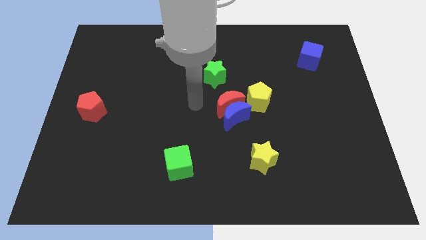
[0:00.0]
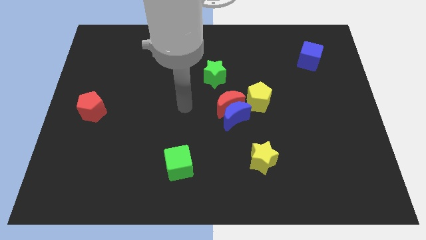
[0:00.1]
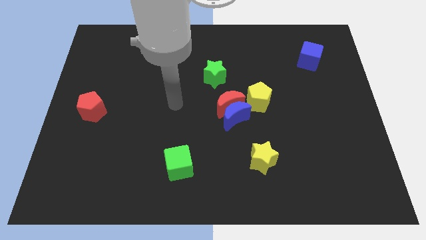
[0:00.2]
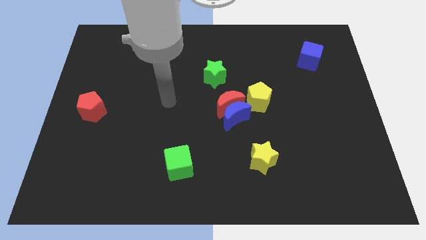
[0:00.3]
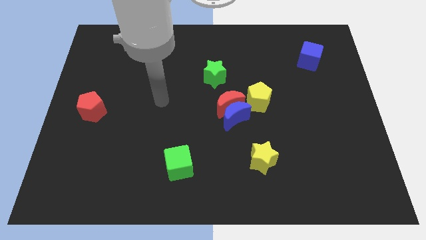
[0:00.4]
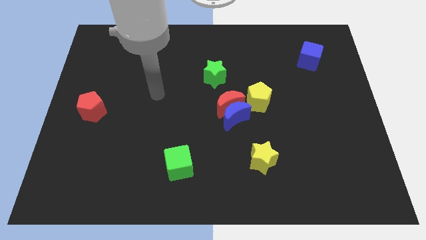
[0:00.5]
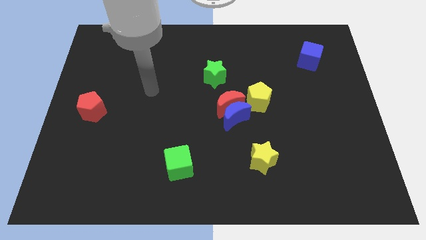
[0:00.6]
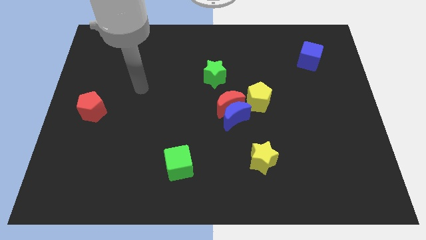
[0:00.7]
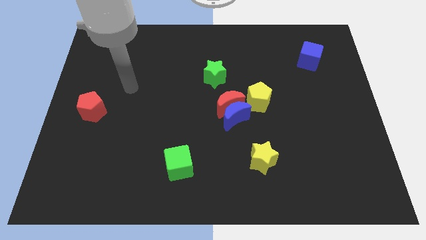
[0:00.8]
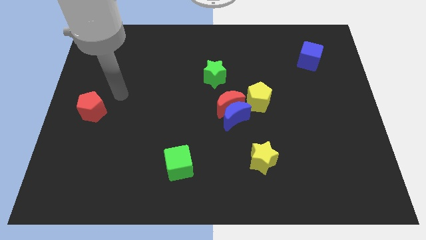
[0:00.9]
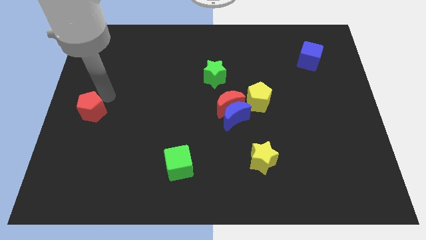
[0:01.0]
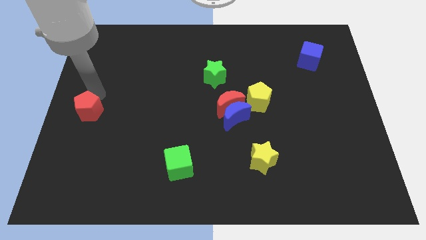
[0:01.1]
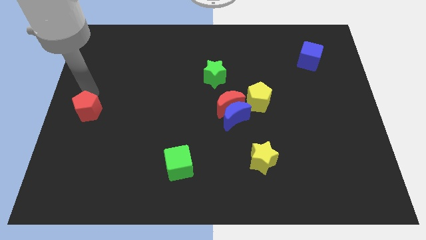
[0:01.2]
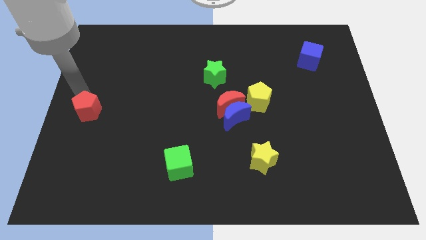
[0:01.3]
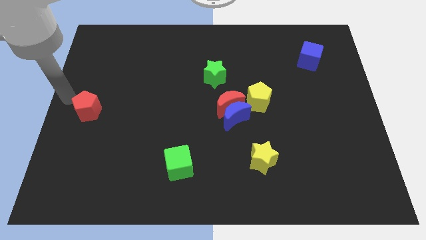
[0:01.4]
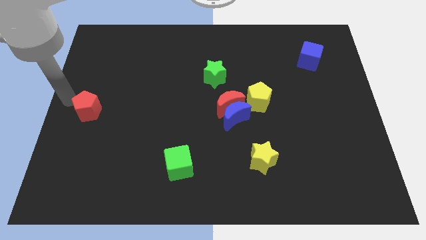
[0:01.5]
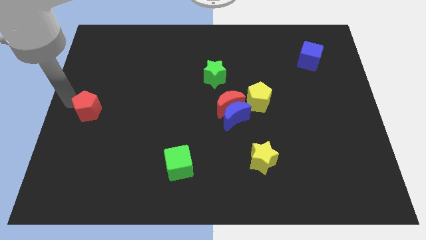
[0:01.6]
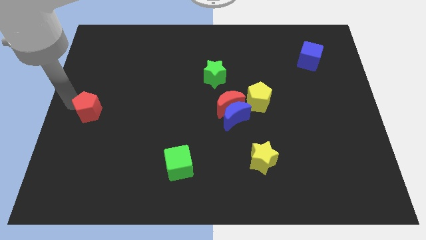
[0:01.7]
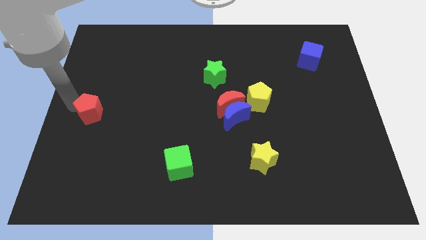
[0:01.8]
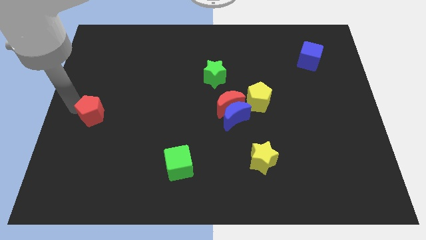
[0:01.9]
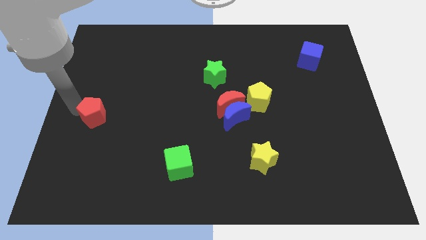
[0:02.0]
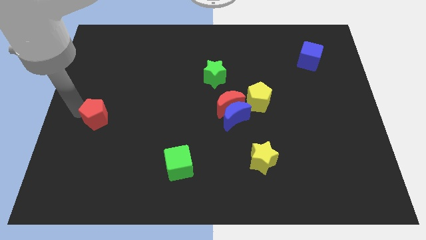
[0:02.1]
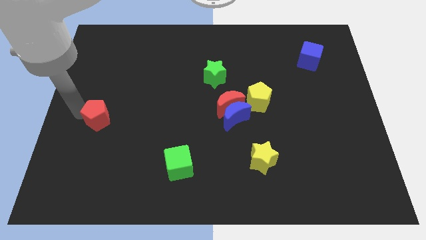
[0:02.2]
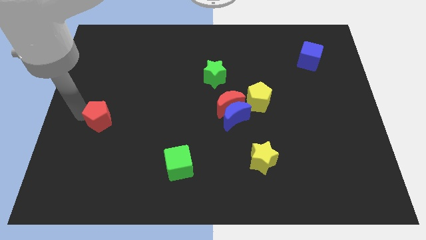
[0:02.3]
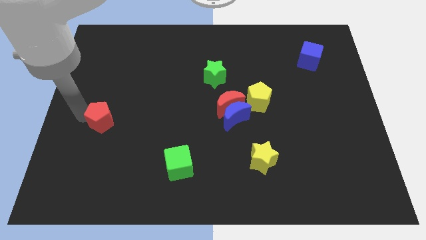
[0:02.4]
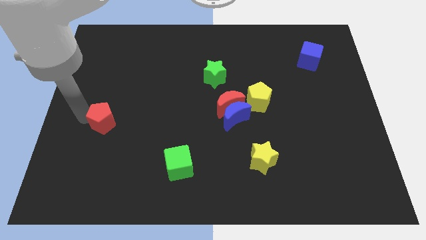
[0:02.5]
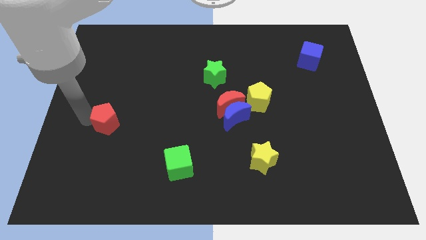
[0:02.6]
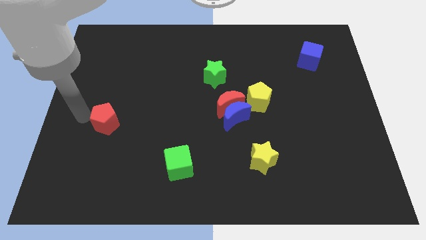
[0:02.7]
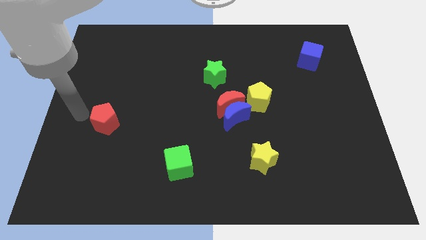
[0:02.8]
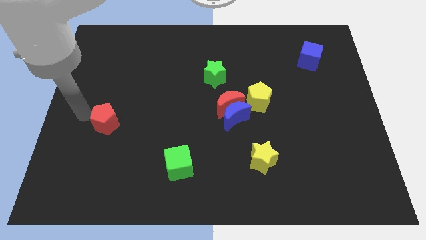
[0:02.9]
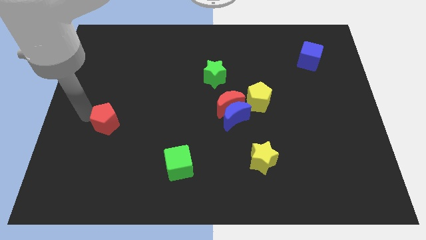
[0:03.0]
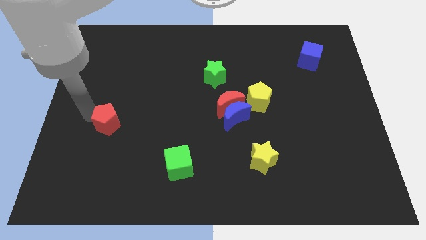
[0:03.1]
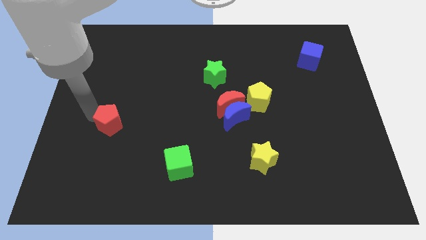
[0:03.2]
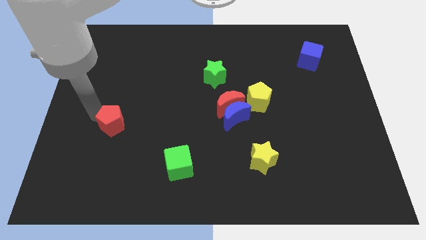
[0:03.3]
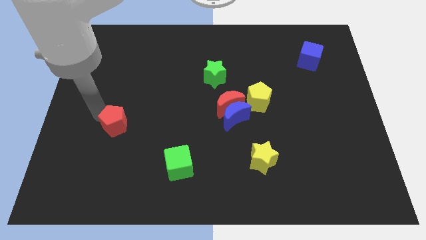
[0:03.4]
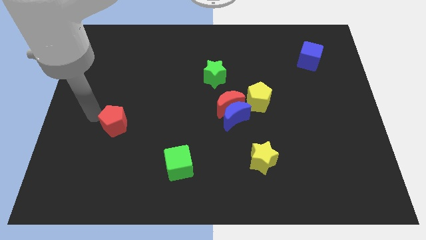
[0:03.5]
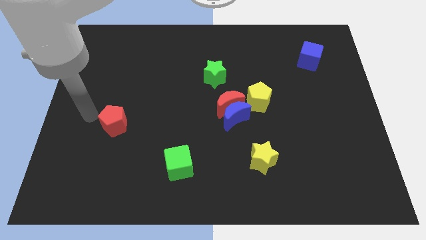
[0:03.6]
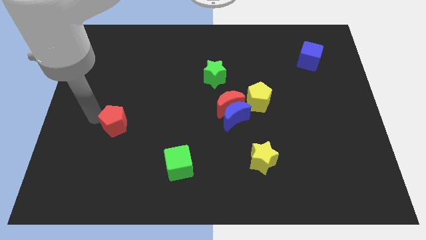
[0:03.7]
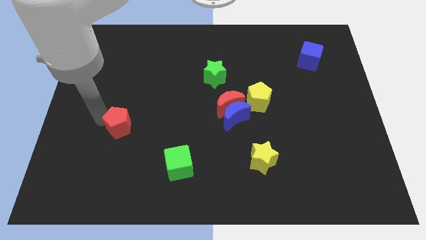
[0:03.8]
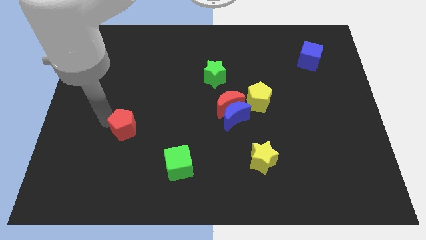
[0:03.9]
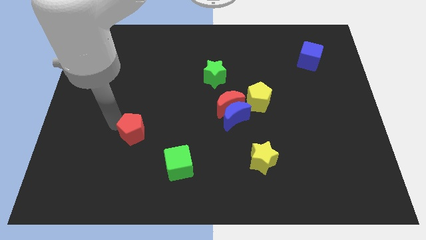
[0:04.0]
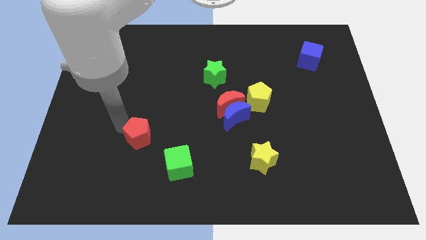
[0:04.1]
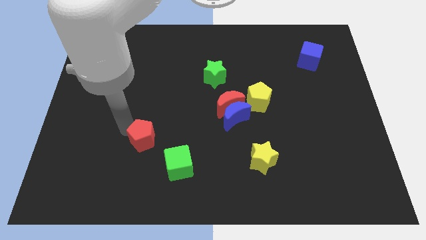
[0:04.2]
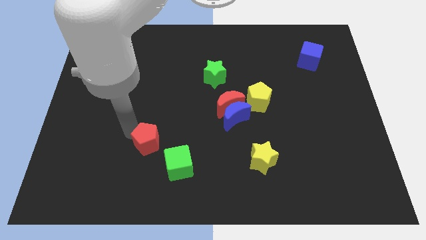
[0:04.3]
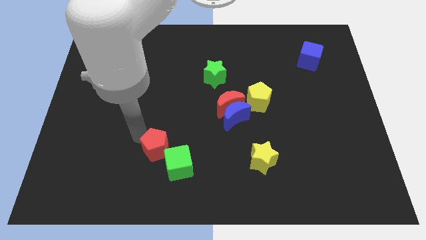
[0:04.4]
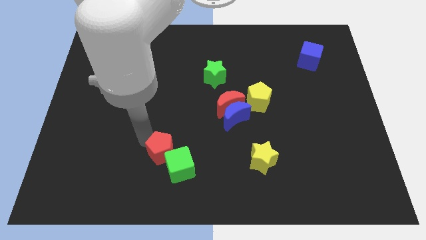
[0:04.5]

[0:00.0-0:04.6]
move the red pentagon to the green cube

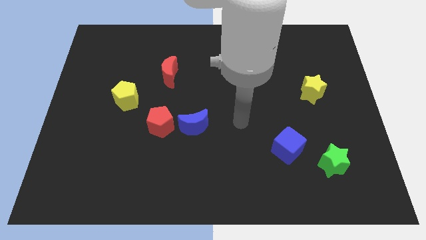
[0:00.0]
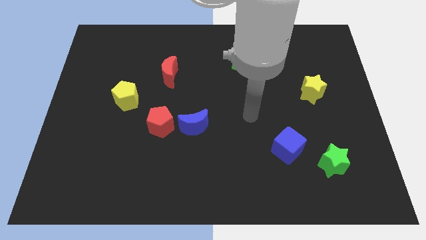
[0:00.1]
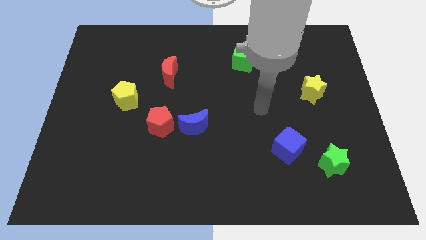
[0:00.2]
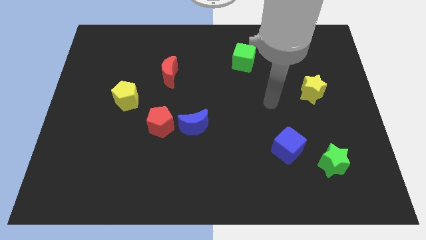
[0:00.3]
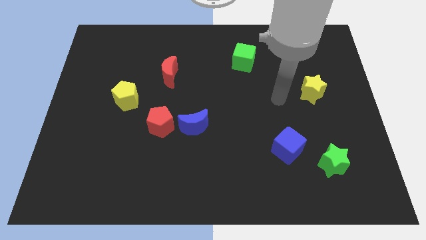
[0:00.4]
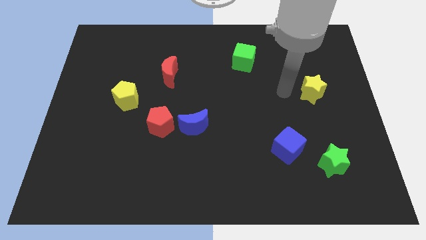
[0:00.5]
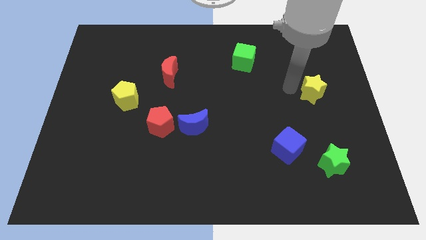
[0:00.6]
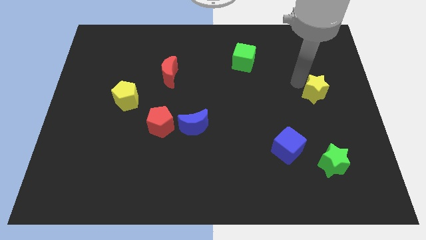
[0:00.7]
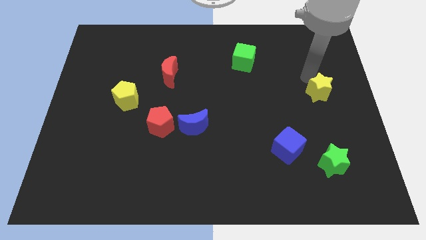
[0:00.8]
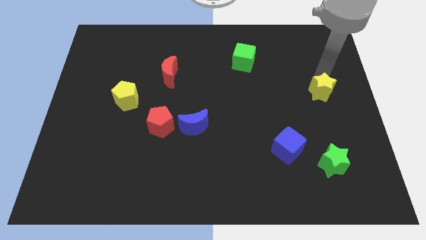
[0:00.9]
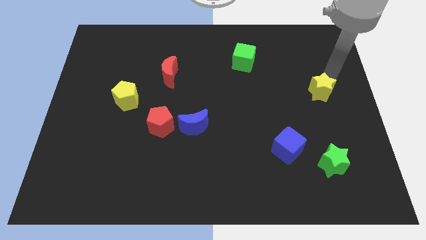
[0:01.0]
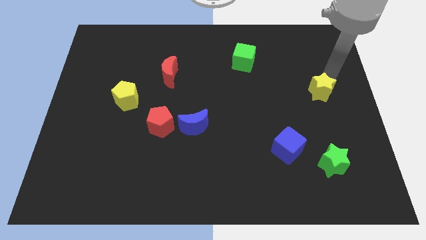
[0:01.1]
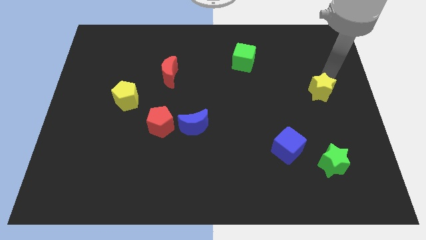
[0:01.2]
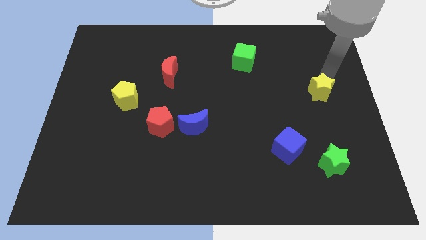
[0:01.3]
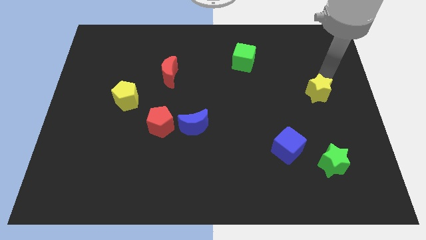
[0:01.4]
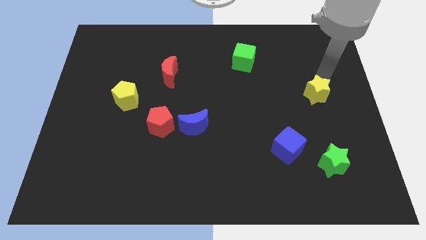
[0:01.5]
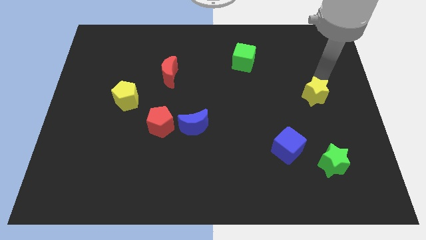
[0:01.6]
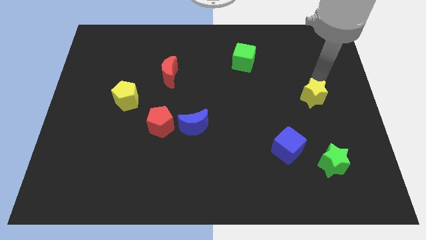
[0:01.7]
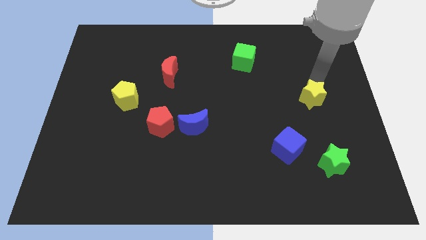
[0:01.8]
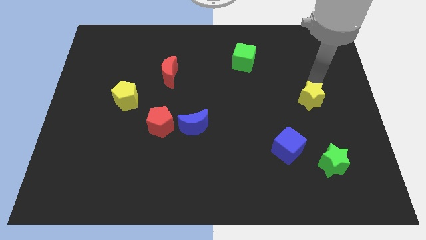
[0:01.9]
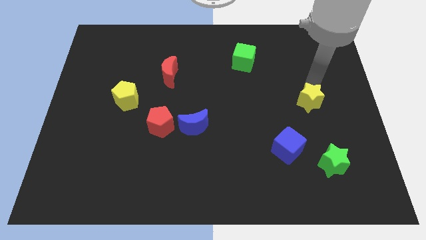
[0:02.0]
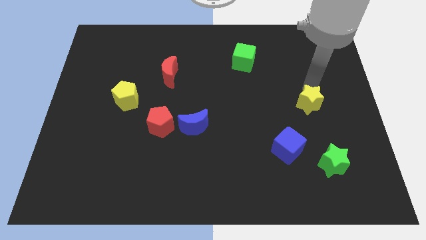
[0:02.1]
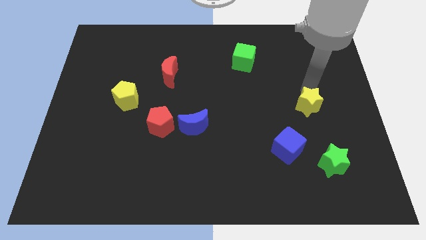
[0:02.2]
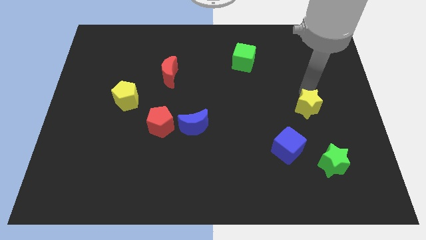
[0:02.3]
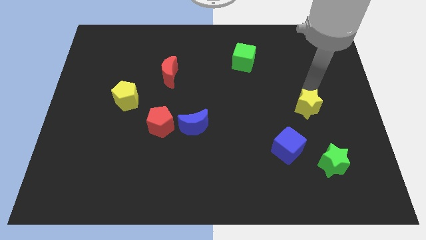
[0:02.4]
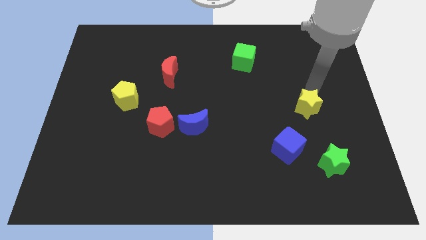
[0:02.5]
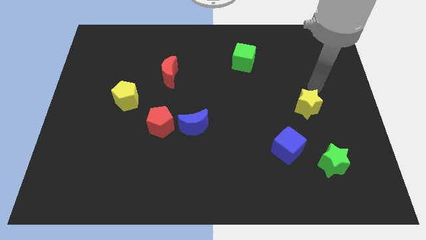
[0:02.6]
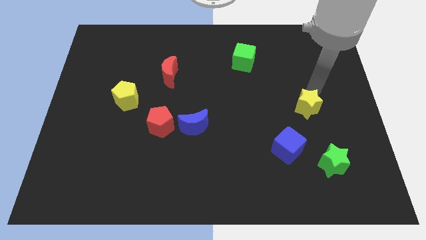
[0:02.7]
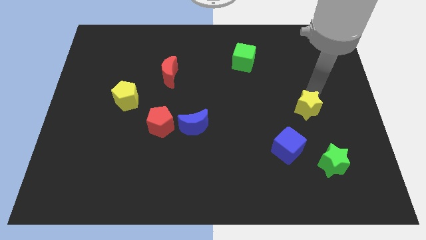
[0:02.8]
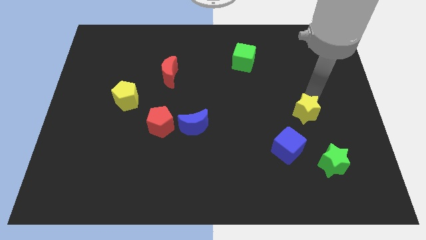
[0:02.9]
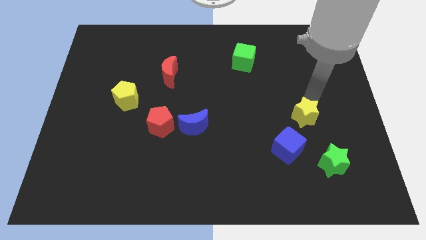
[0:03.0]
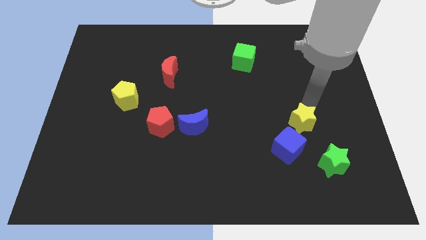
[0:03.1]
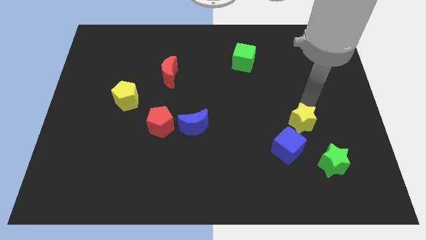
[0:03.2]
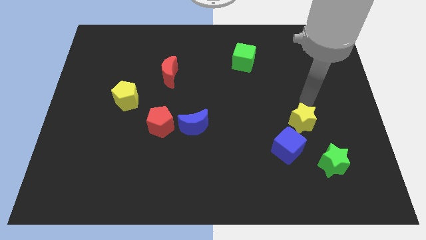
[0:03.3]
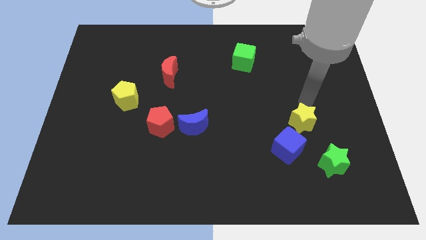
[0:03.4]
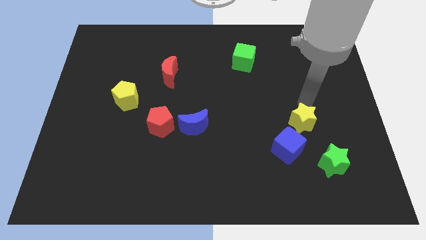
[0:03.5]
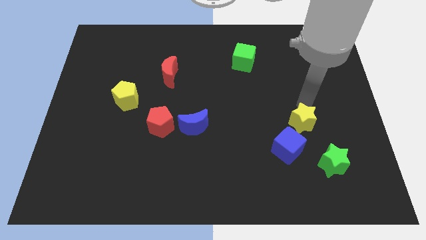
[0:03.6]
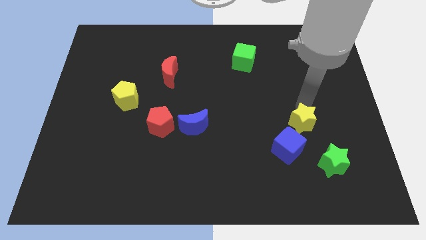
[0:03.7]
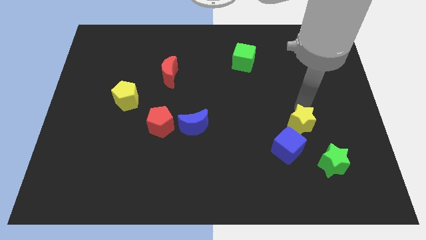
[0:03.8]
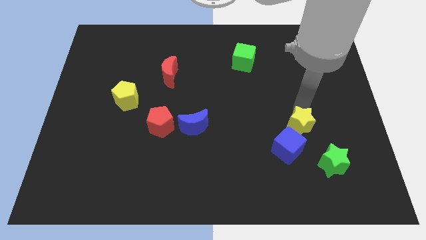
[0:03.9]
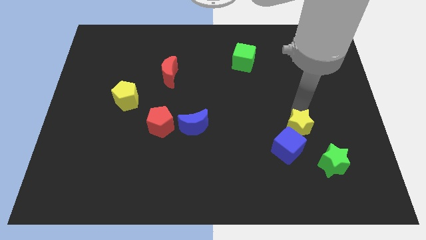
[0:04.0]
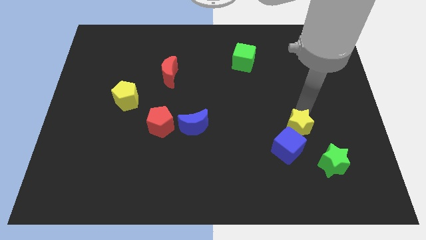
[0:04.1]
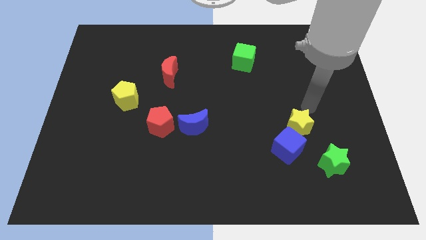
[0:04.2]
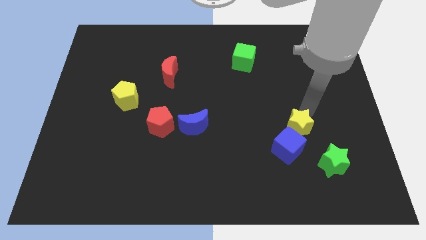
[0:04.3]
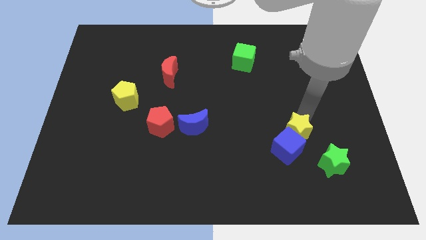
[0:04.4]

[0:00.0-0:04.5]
move the yellow star next to the blue cube
